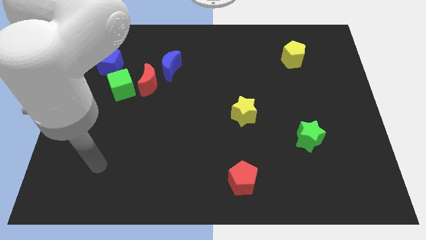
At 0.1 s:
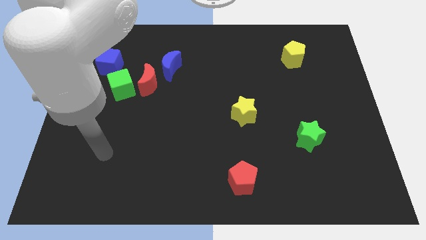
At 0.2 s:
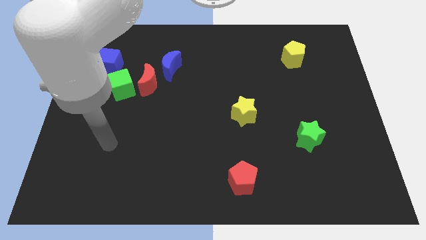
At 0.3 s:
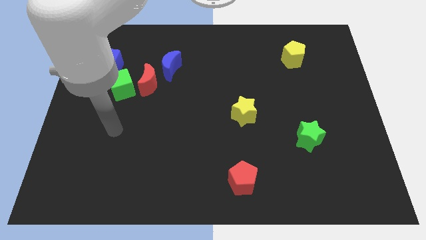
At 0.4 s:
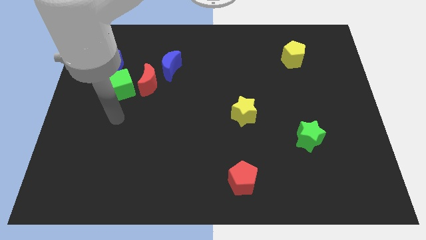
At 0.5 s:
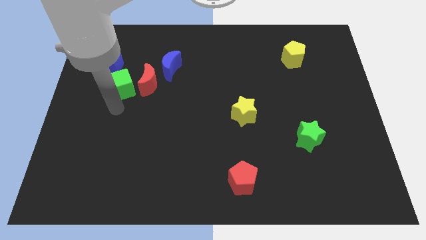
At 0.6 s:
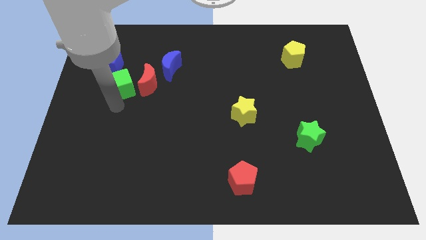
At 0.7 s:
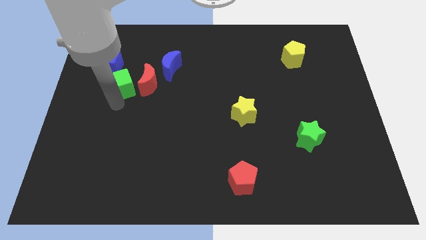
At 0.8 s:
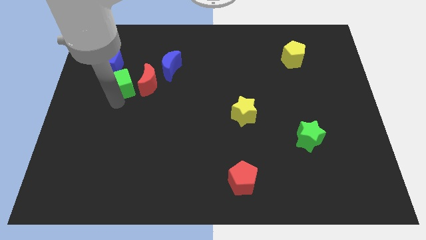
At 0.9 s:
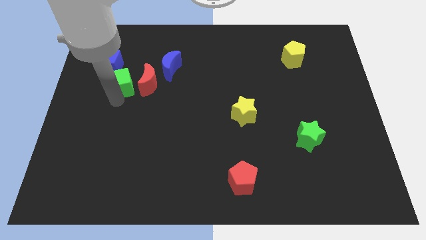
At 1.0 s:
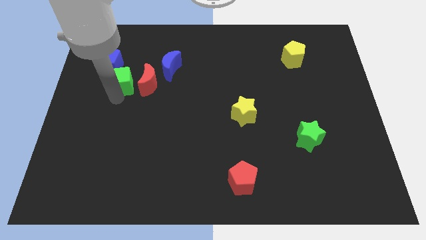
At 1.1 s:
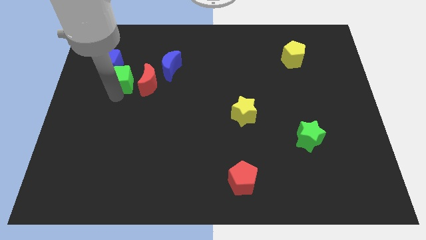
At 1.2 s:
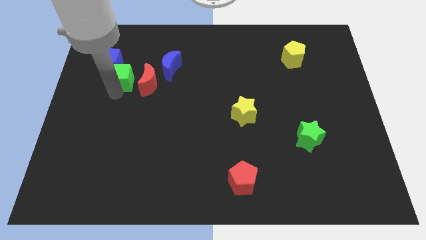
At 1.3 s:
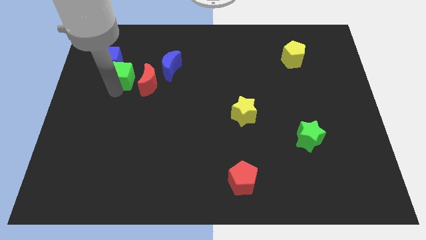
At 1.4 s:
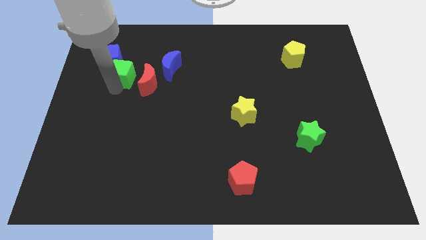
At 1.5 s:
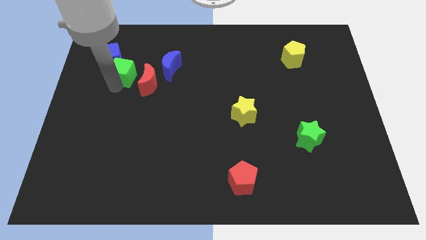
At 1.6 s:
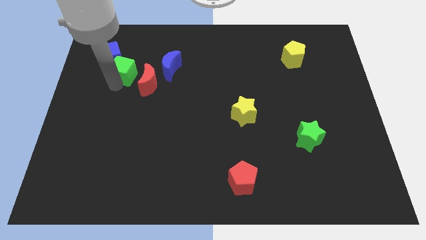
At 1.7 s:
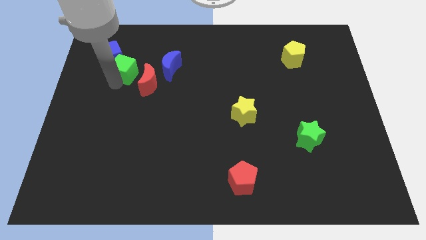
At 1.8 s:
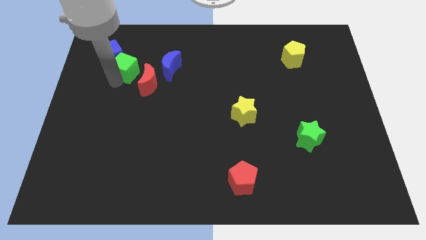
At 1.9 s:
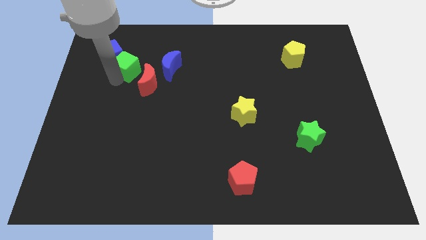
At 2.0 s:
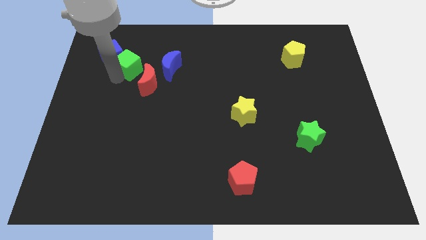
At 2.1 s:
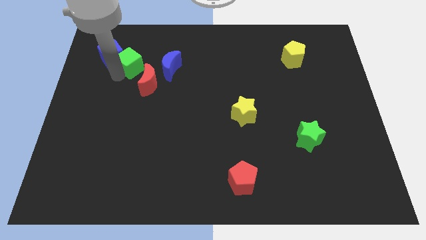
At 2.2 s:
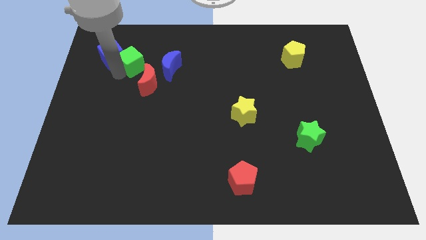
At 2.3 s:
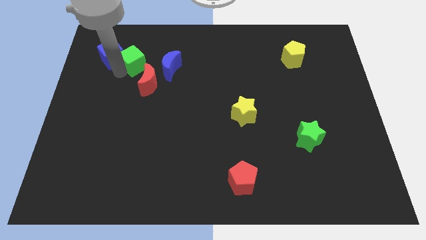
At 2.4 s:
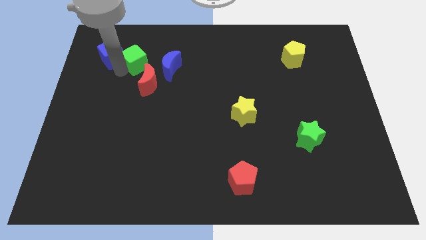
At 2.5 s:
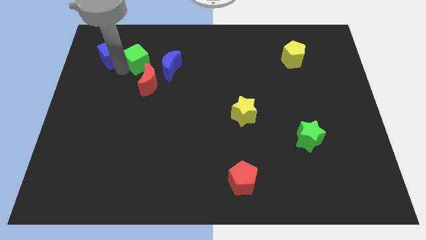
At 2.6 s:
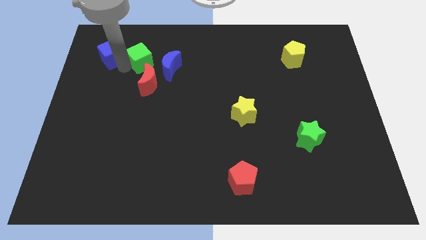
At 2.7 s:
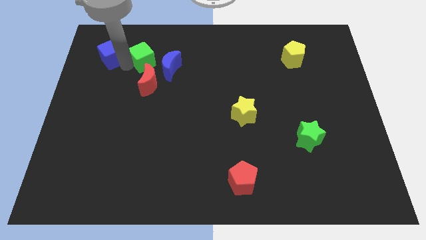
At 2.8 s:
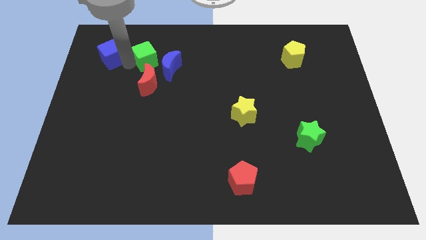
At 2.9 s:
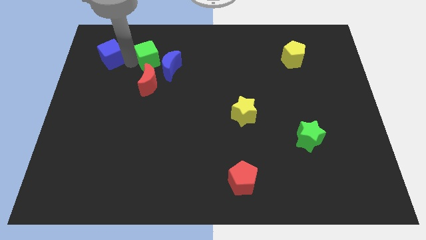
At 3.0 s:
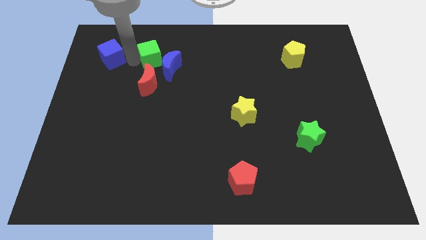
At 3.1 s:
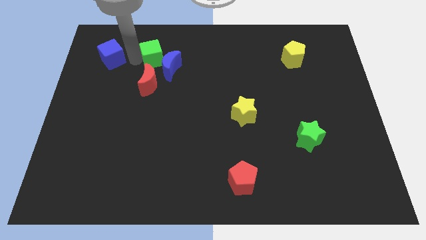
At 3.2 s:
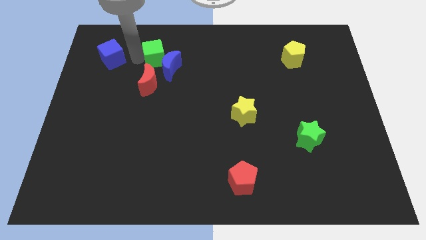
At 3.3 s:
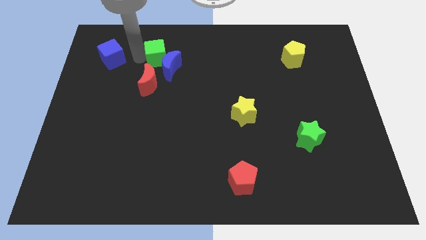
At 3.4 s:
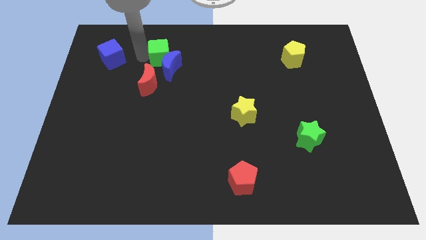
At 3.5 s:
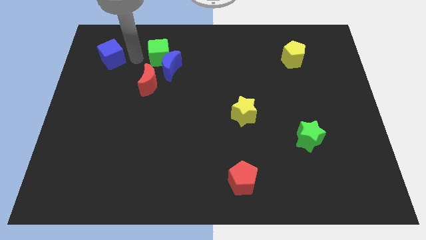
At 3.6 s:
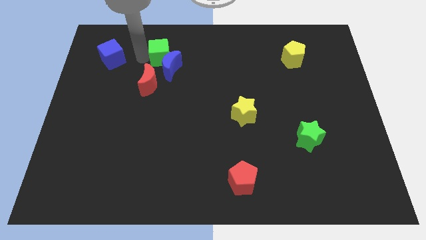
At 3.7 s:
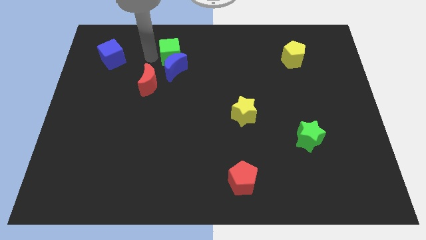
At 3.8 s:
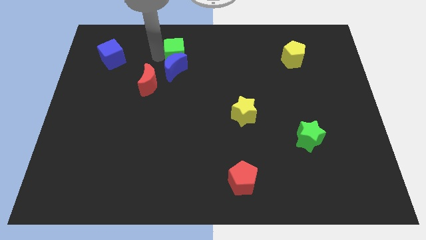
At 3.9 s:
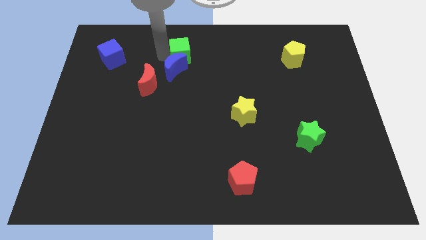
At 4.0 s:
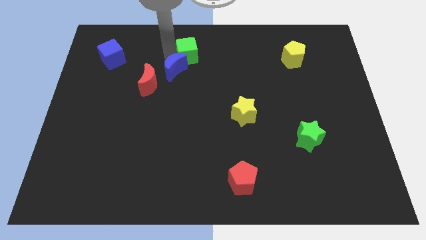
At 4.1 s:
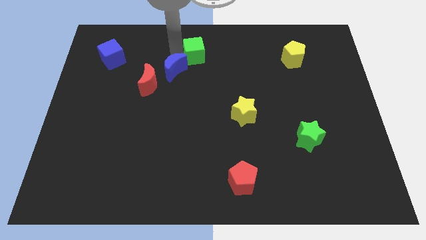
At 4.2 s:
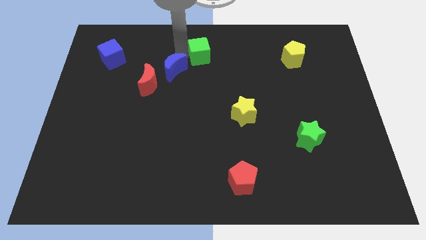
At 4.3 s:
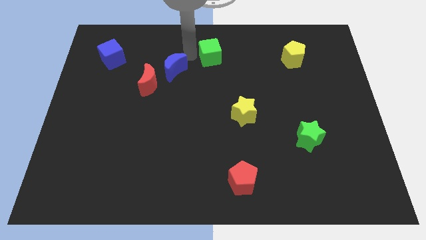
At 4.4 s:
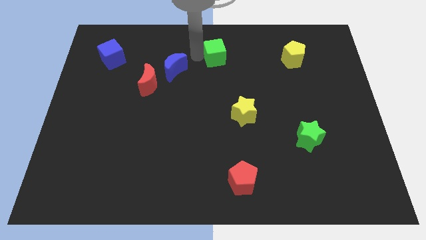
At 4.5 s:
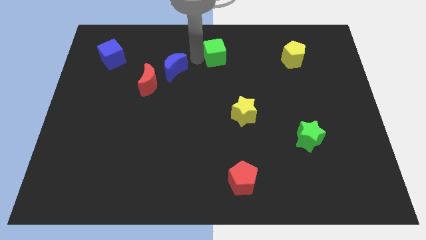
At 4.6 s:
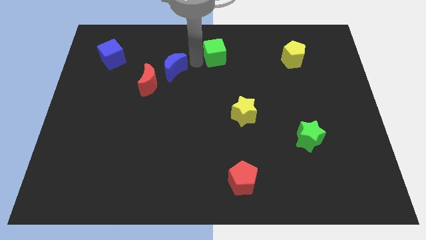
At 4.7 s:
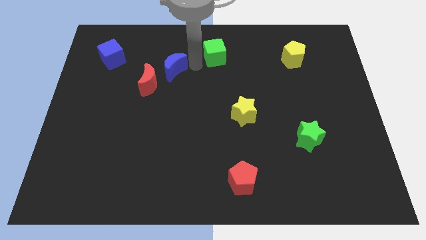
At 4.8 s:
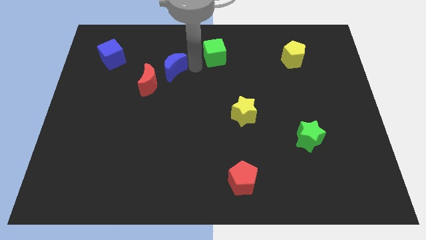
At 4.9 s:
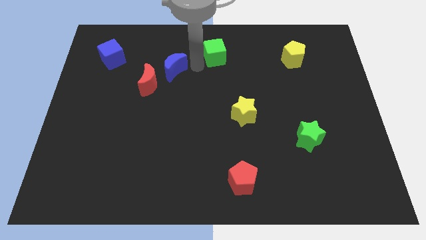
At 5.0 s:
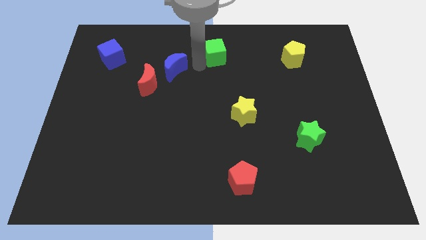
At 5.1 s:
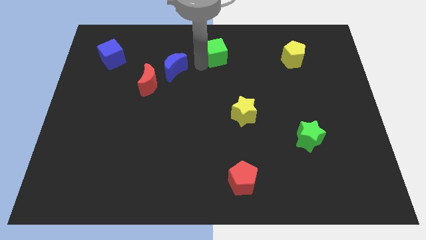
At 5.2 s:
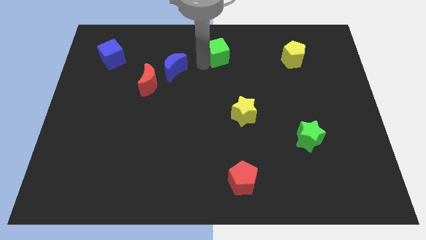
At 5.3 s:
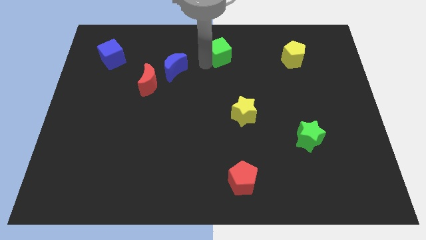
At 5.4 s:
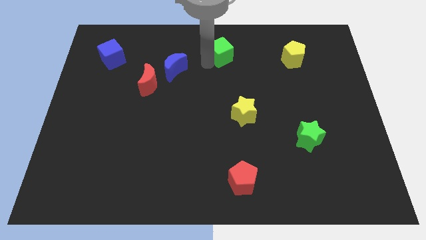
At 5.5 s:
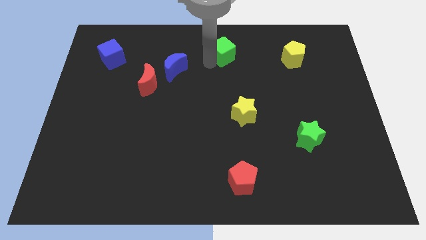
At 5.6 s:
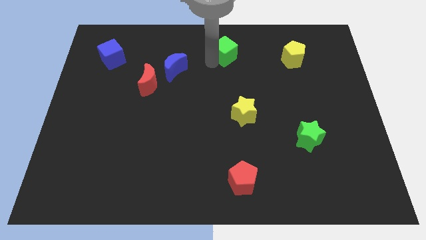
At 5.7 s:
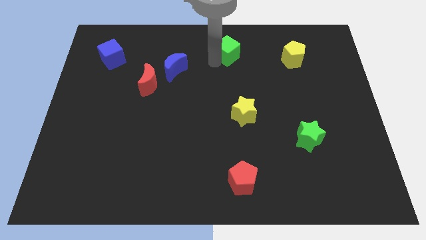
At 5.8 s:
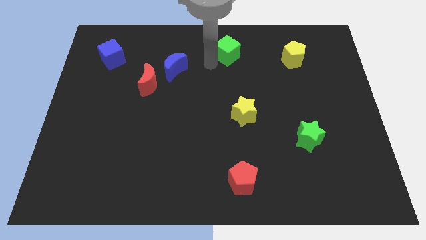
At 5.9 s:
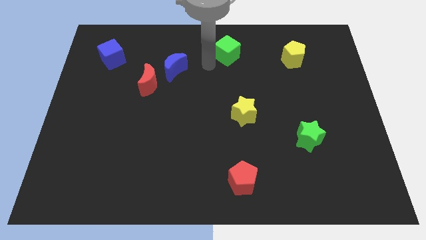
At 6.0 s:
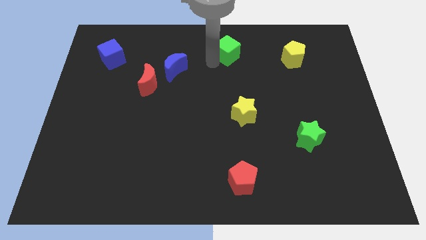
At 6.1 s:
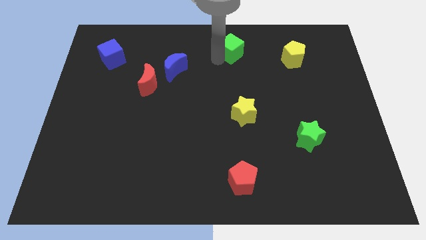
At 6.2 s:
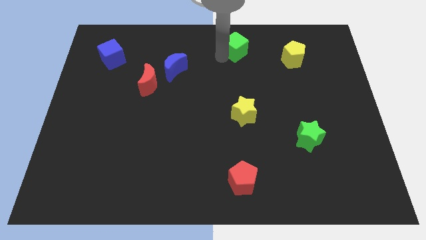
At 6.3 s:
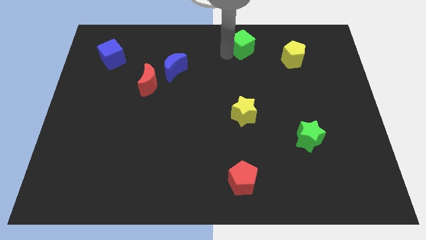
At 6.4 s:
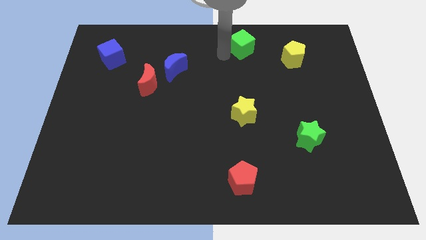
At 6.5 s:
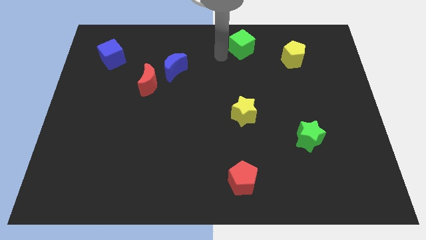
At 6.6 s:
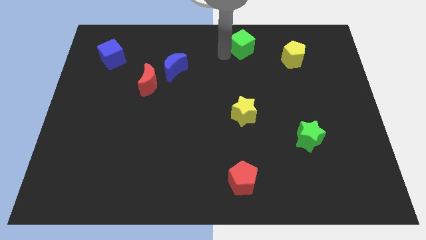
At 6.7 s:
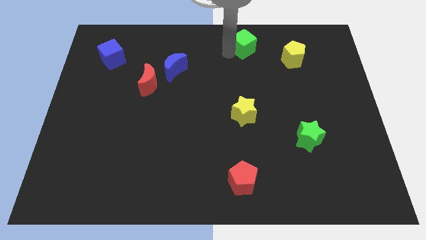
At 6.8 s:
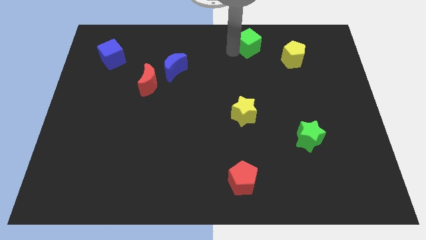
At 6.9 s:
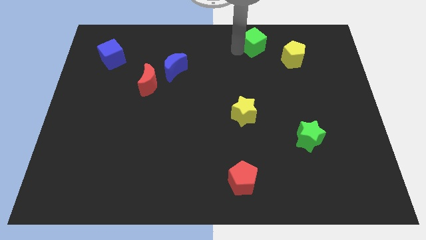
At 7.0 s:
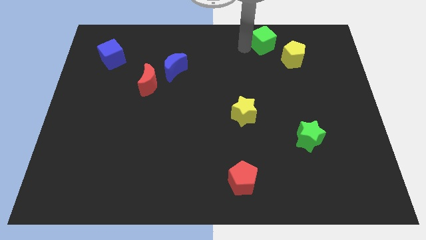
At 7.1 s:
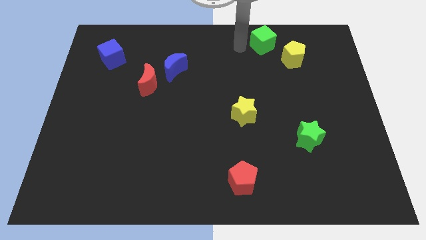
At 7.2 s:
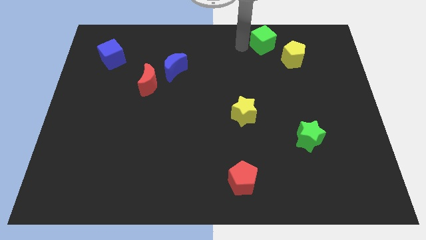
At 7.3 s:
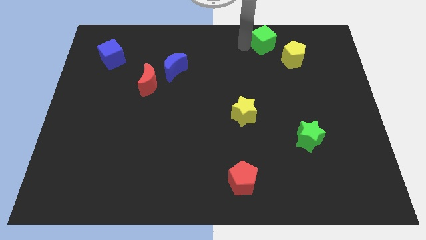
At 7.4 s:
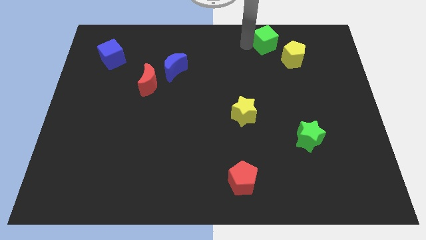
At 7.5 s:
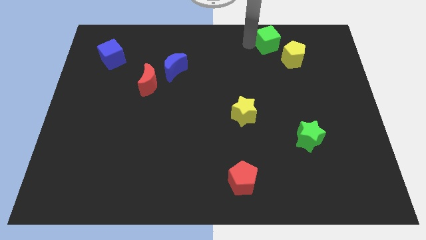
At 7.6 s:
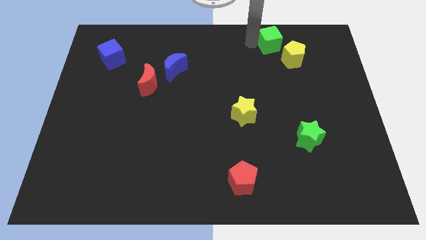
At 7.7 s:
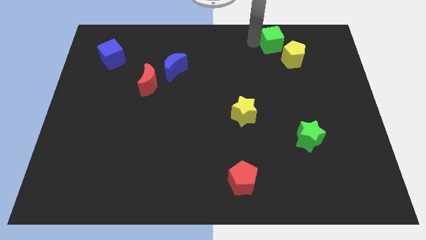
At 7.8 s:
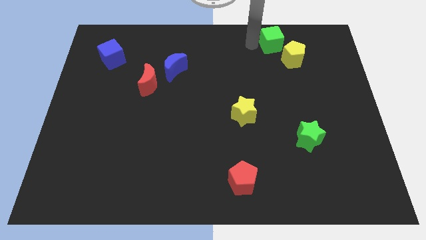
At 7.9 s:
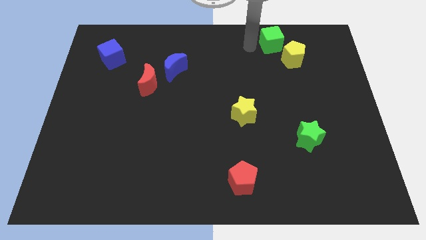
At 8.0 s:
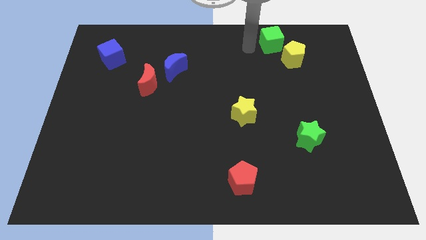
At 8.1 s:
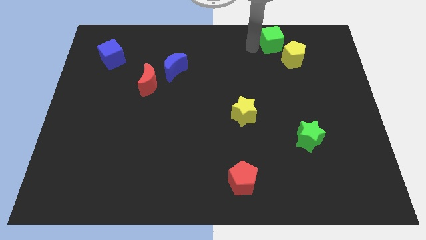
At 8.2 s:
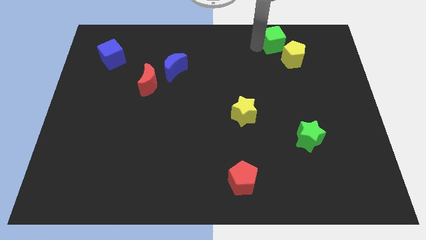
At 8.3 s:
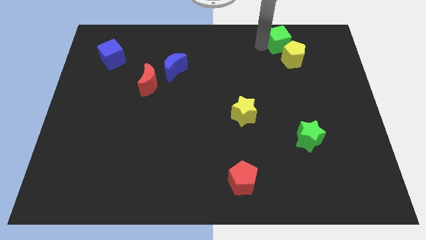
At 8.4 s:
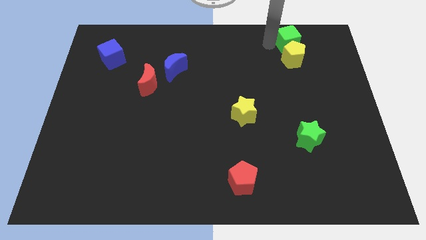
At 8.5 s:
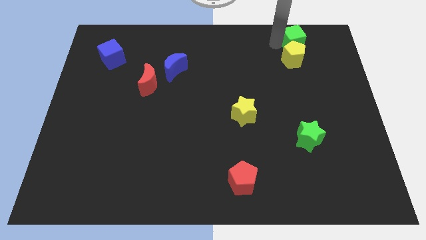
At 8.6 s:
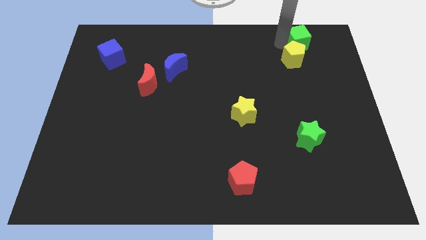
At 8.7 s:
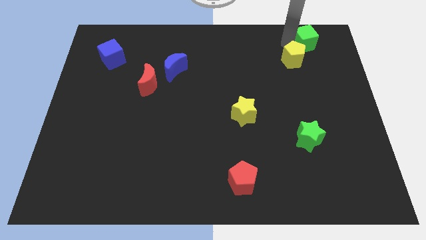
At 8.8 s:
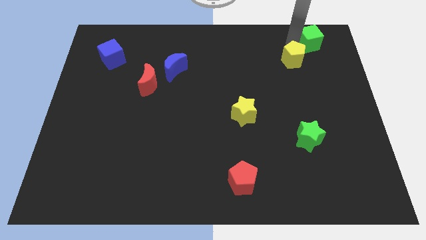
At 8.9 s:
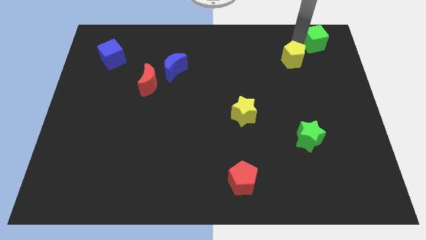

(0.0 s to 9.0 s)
move the green cube to the top right corner
